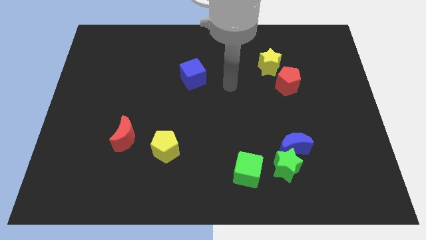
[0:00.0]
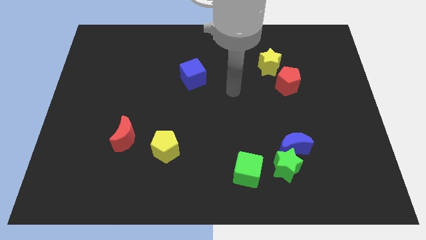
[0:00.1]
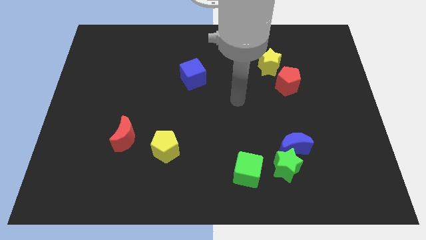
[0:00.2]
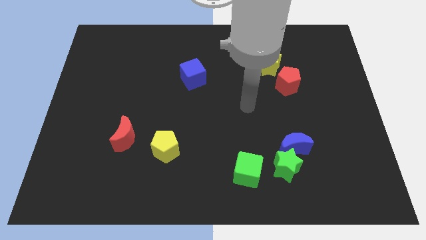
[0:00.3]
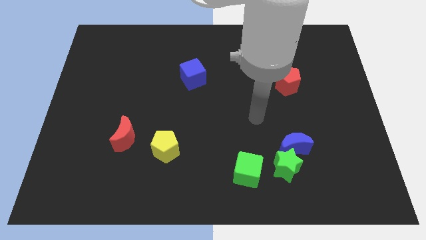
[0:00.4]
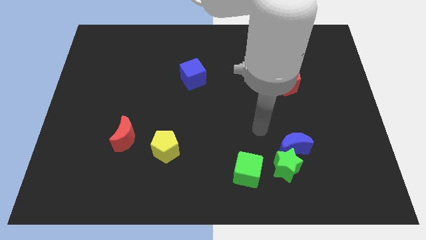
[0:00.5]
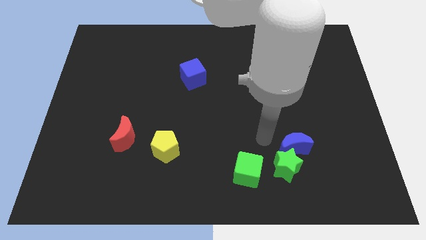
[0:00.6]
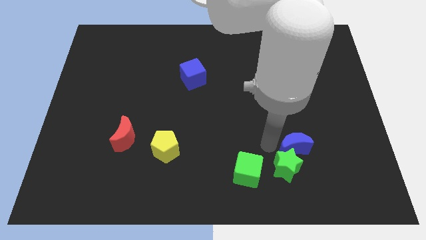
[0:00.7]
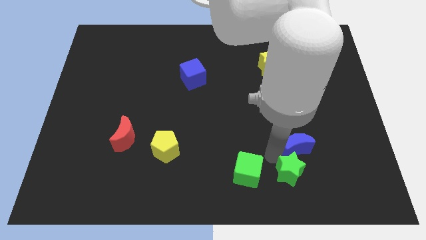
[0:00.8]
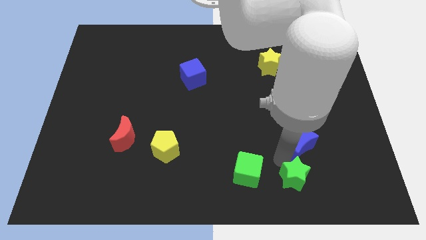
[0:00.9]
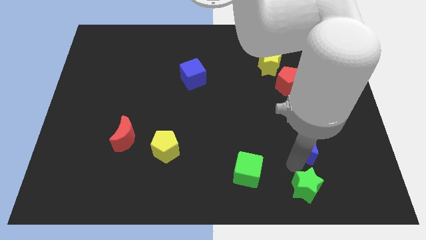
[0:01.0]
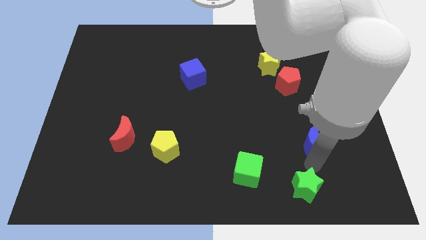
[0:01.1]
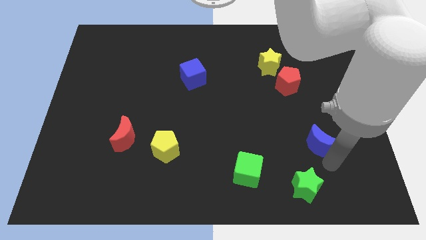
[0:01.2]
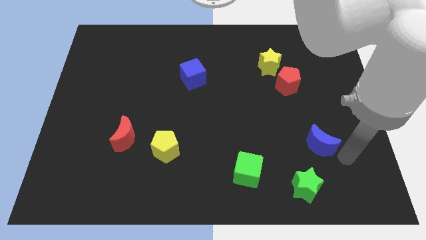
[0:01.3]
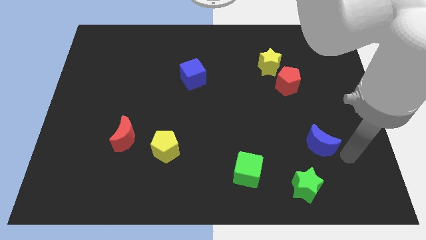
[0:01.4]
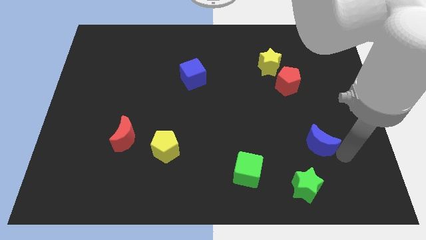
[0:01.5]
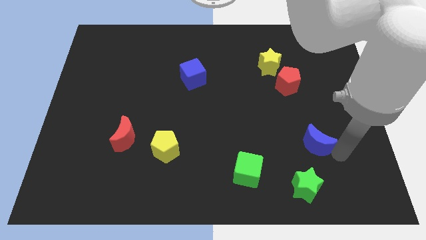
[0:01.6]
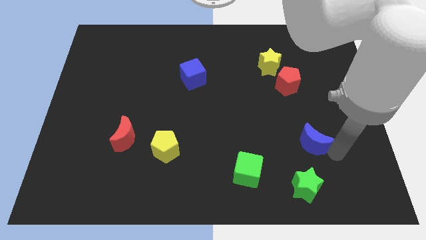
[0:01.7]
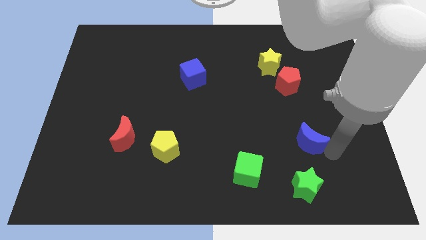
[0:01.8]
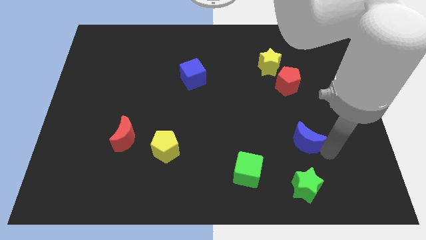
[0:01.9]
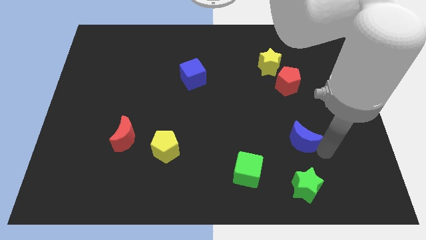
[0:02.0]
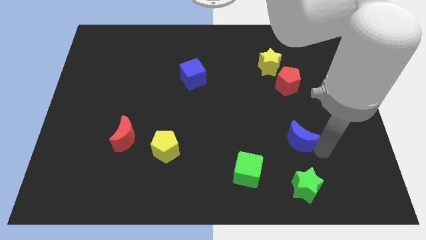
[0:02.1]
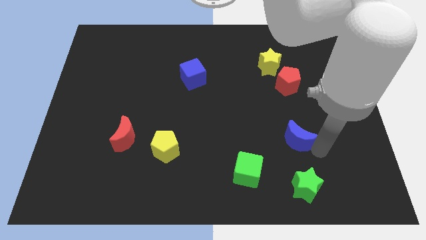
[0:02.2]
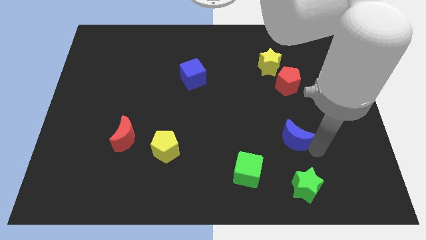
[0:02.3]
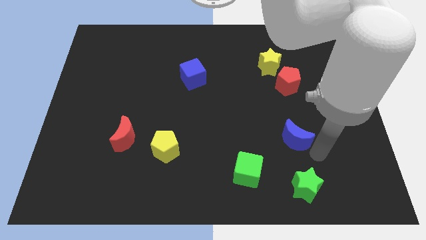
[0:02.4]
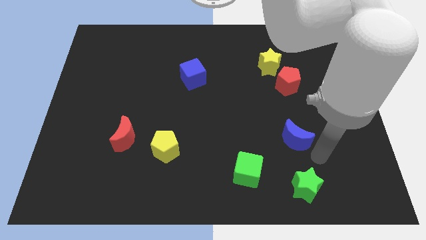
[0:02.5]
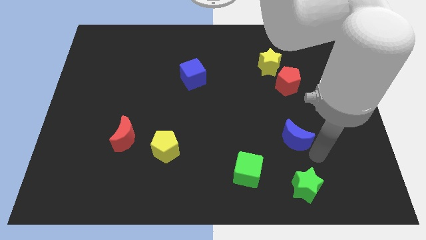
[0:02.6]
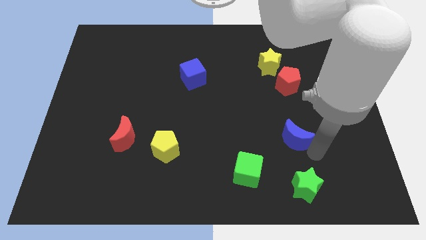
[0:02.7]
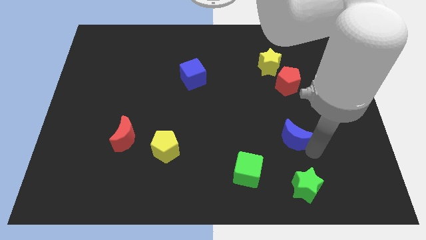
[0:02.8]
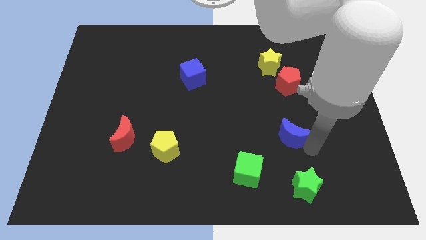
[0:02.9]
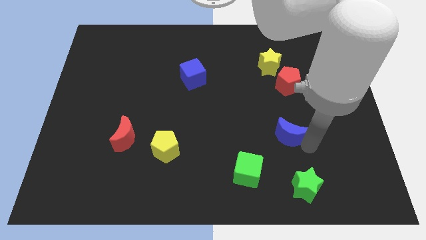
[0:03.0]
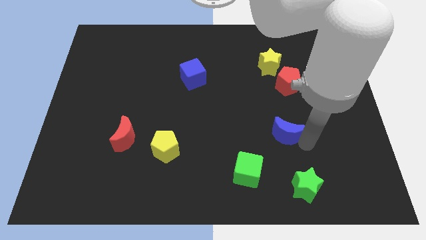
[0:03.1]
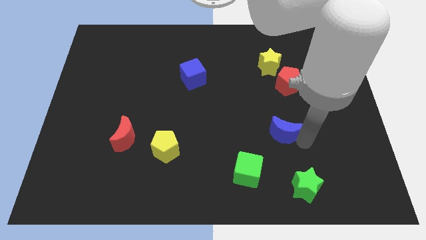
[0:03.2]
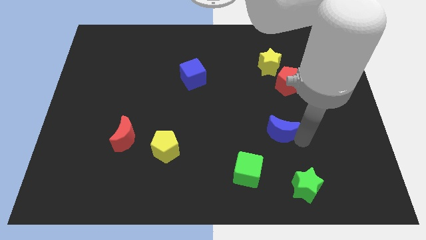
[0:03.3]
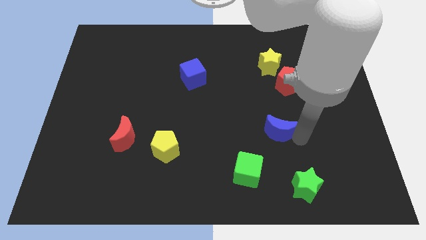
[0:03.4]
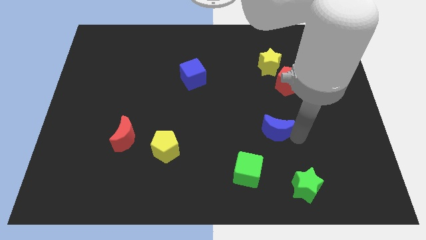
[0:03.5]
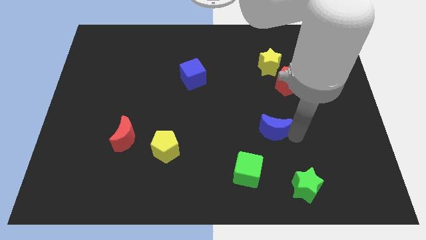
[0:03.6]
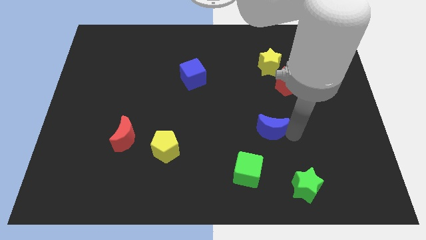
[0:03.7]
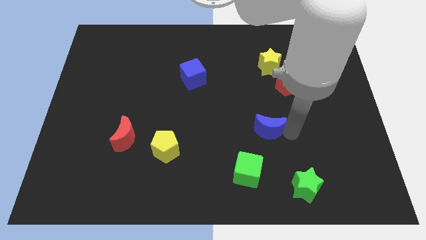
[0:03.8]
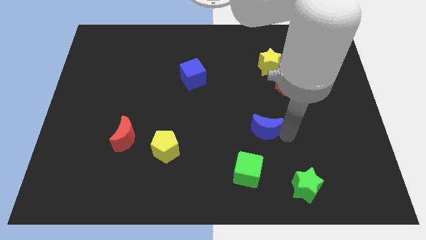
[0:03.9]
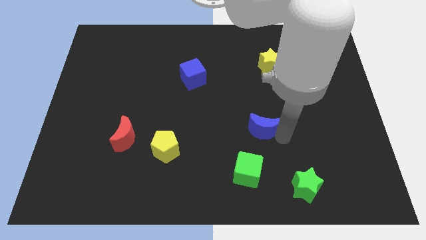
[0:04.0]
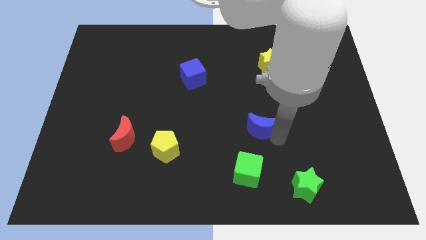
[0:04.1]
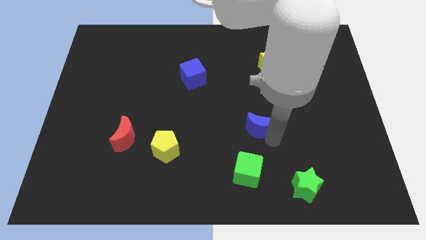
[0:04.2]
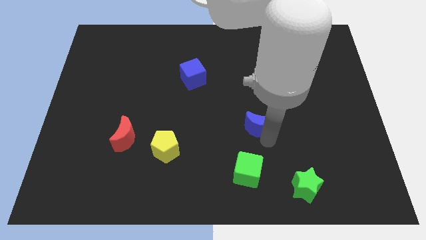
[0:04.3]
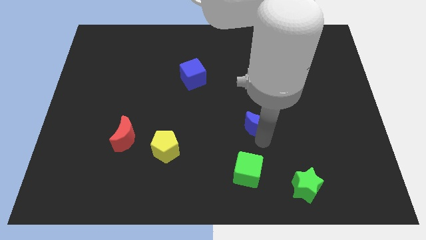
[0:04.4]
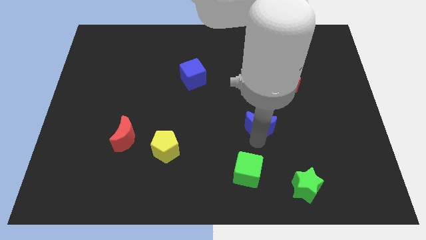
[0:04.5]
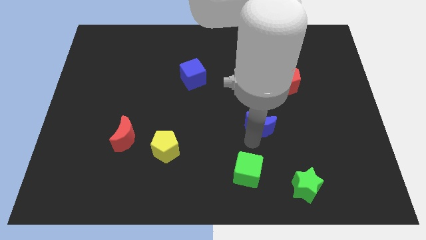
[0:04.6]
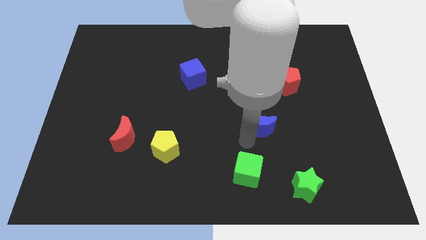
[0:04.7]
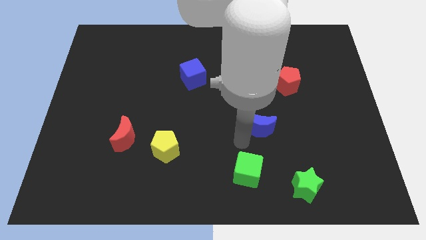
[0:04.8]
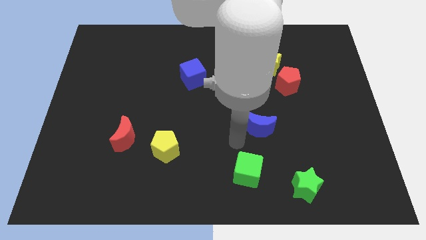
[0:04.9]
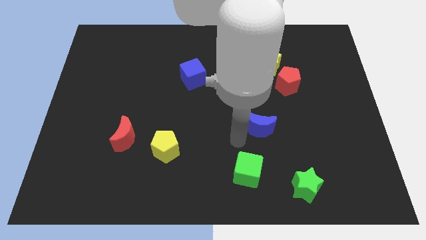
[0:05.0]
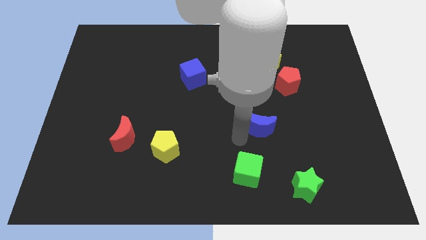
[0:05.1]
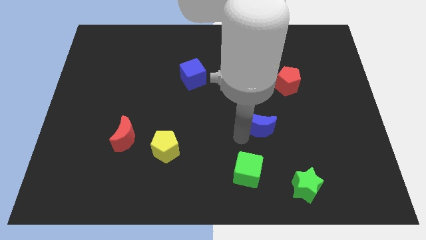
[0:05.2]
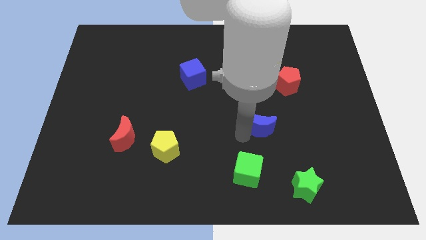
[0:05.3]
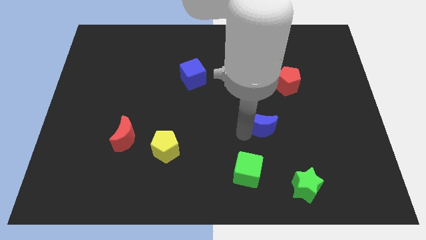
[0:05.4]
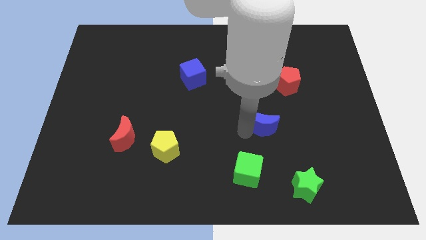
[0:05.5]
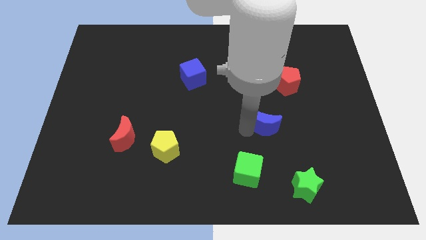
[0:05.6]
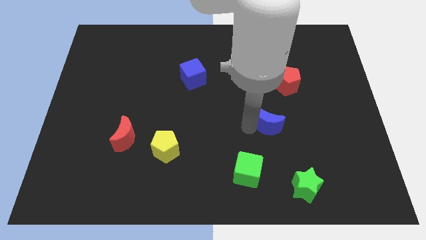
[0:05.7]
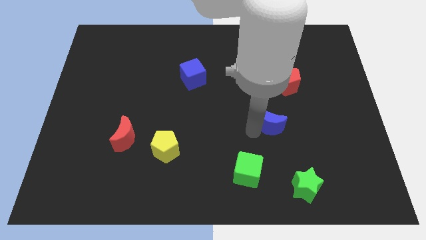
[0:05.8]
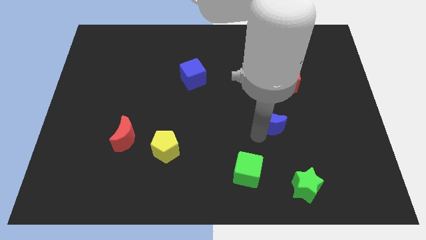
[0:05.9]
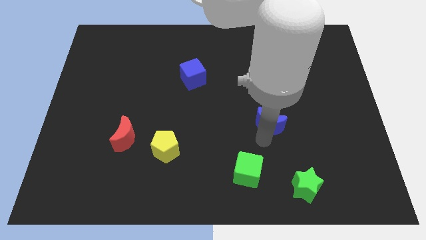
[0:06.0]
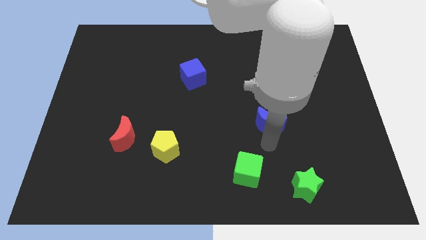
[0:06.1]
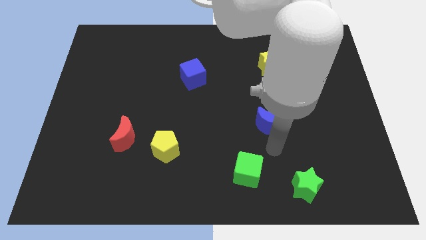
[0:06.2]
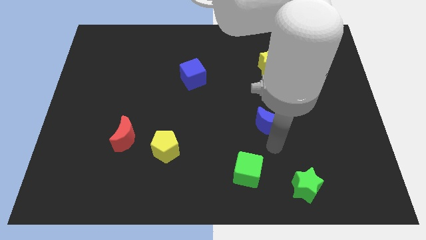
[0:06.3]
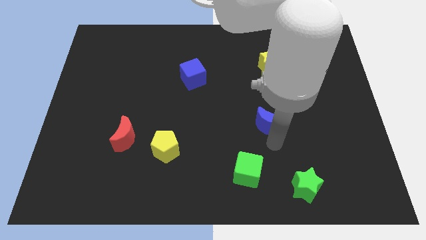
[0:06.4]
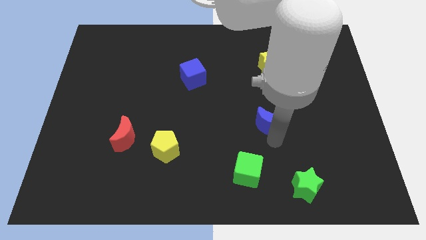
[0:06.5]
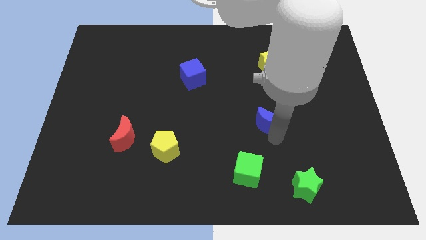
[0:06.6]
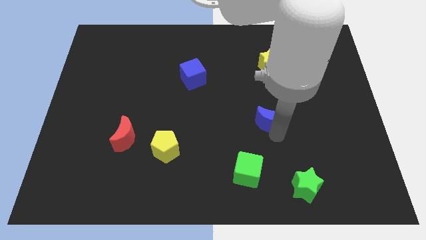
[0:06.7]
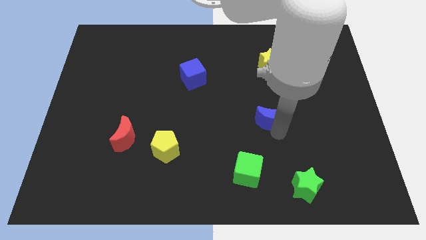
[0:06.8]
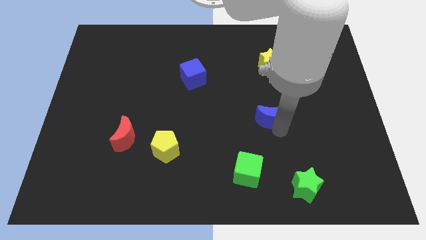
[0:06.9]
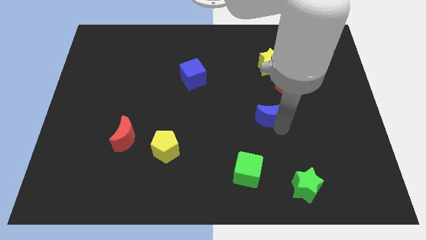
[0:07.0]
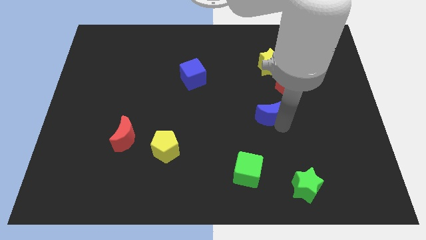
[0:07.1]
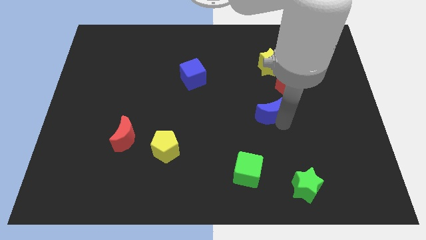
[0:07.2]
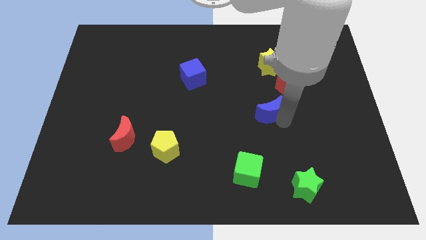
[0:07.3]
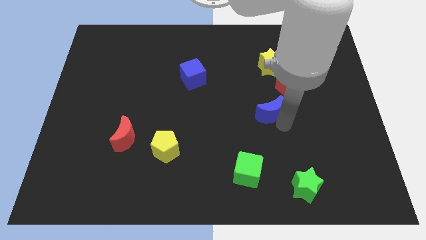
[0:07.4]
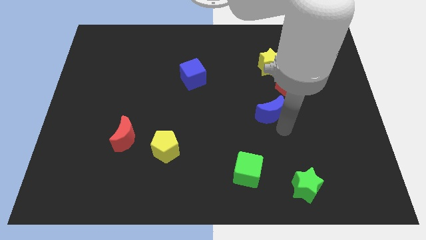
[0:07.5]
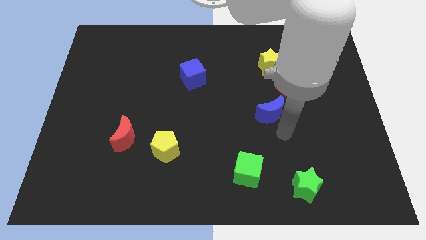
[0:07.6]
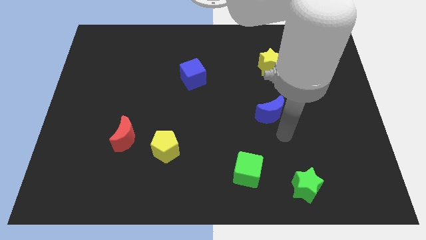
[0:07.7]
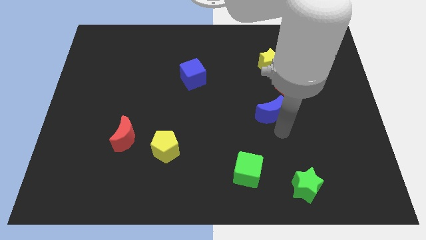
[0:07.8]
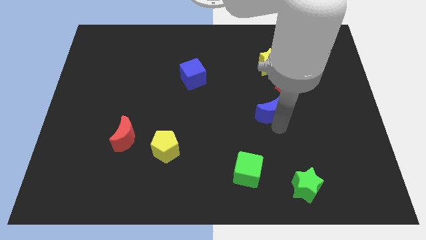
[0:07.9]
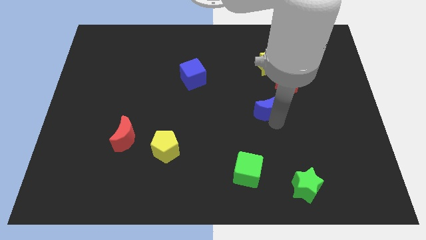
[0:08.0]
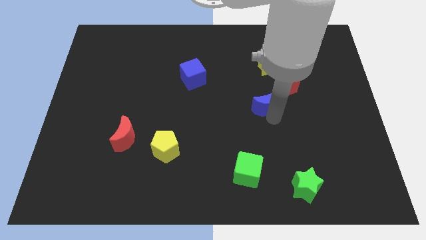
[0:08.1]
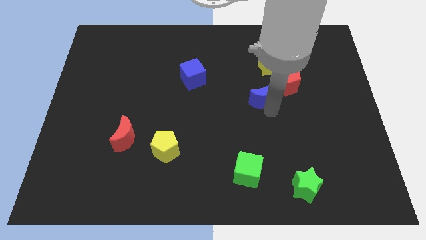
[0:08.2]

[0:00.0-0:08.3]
push the blue moon to the left side of the red pentagon
